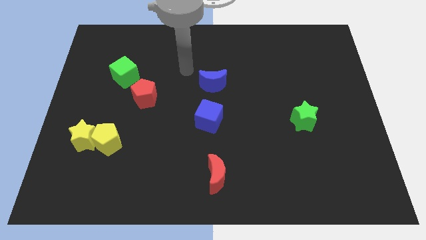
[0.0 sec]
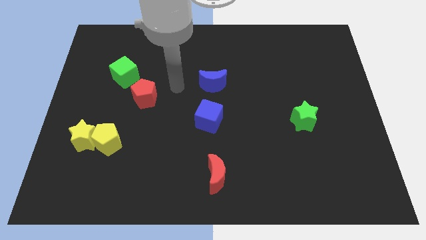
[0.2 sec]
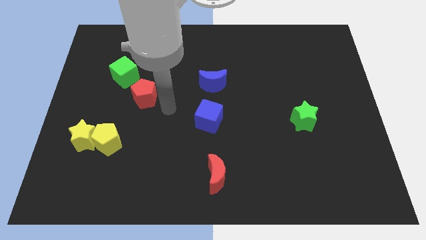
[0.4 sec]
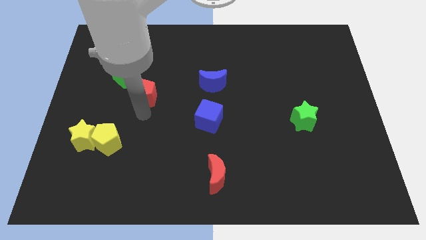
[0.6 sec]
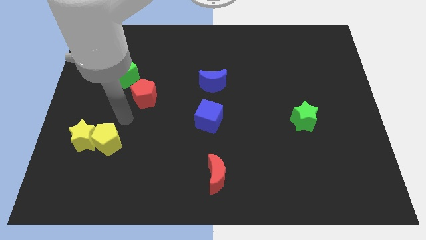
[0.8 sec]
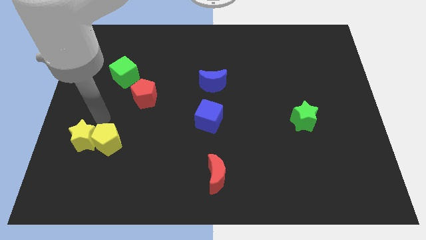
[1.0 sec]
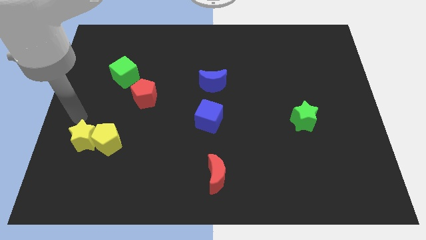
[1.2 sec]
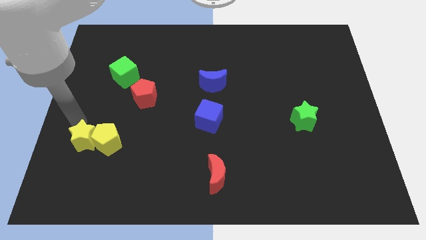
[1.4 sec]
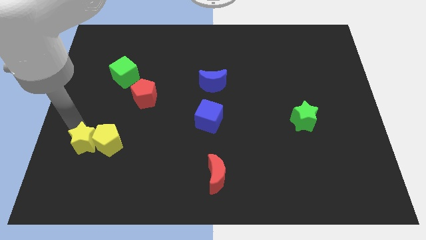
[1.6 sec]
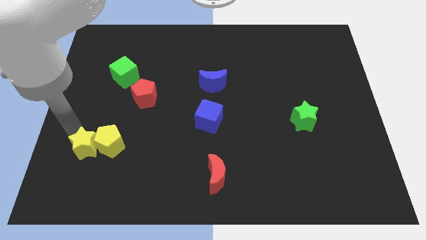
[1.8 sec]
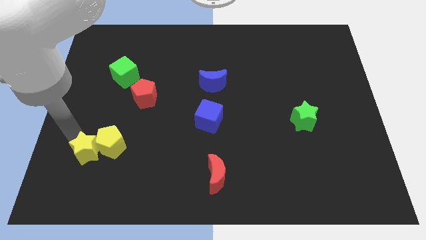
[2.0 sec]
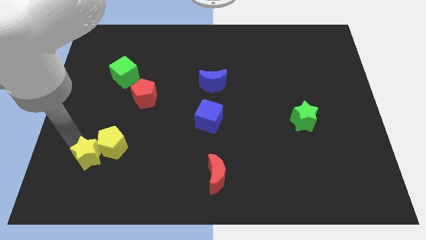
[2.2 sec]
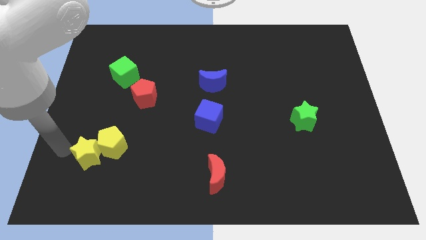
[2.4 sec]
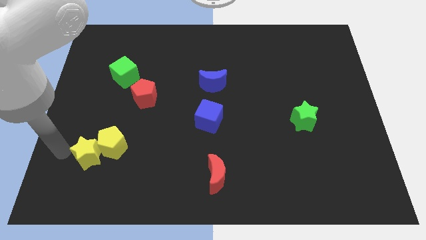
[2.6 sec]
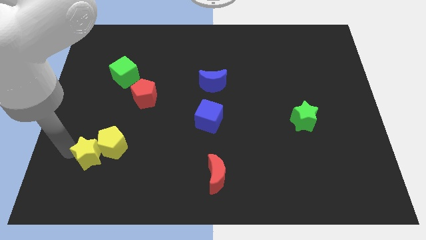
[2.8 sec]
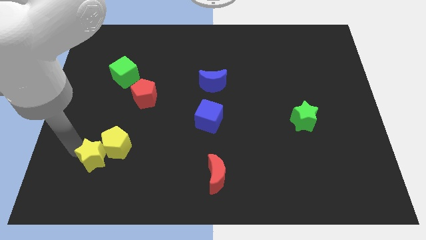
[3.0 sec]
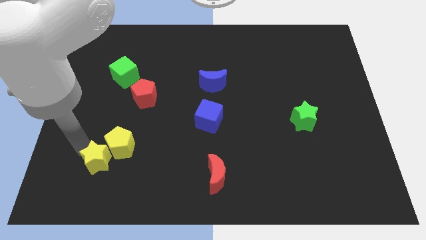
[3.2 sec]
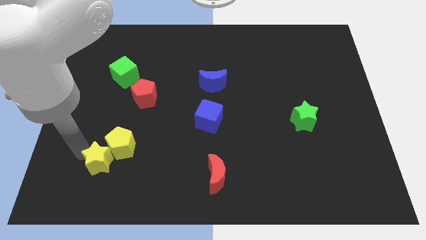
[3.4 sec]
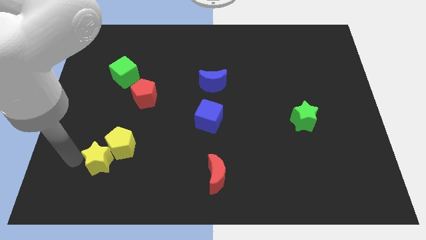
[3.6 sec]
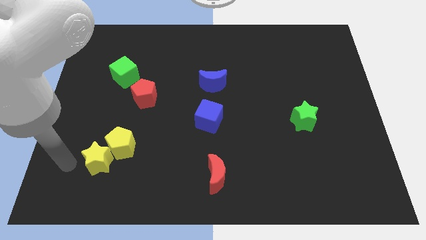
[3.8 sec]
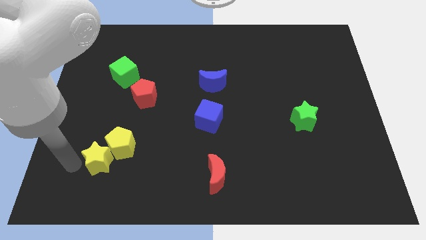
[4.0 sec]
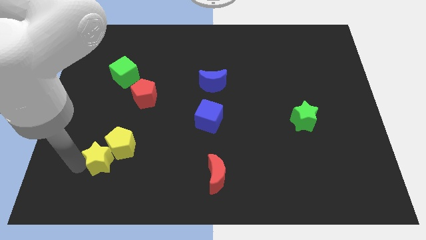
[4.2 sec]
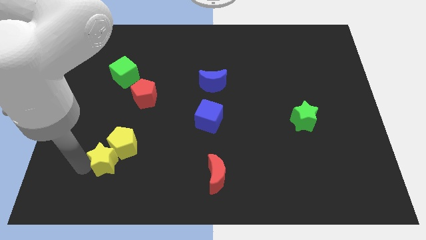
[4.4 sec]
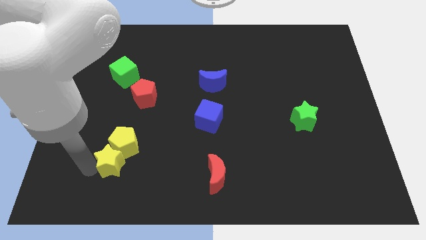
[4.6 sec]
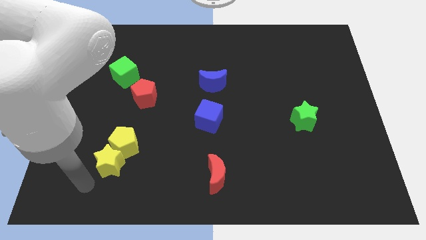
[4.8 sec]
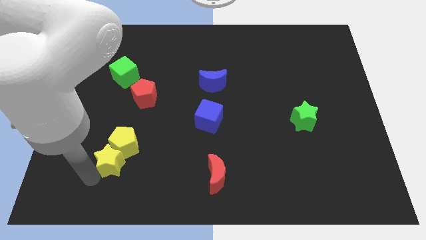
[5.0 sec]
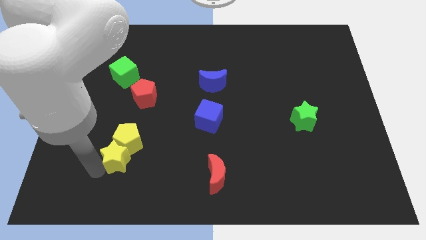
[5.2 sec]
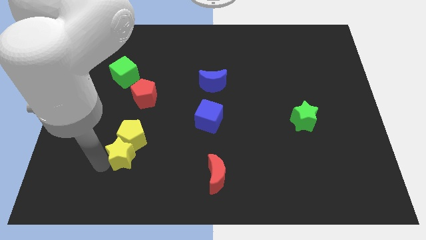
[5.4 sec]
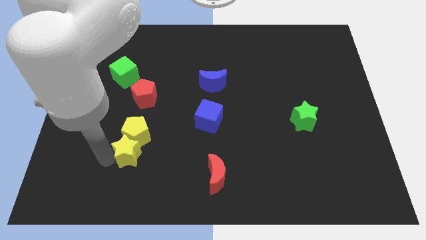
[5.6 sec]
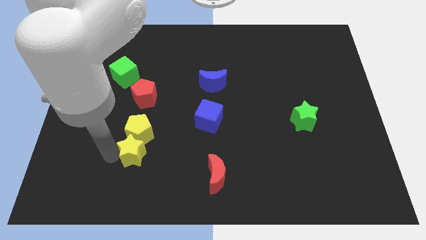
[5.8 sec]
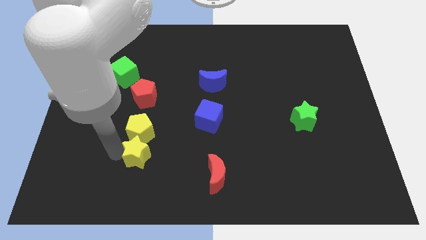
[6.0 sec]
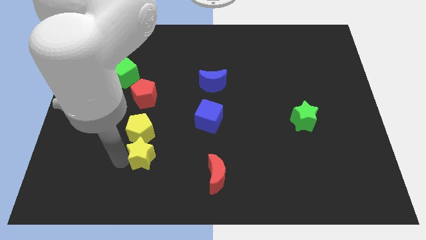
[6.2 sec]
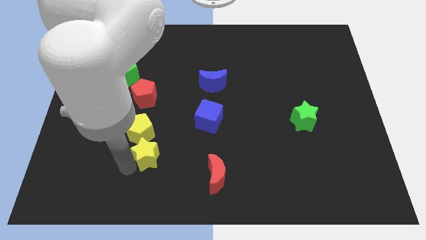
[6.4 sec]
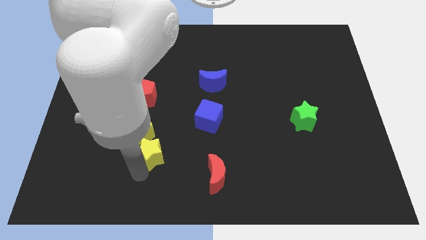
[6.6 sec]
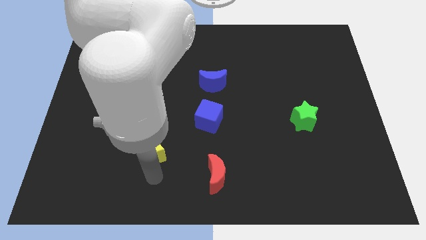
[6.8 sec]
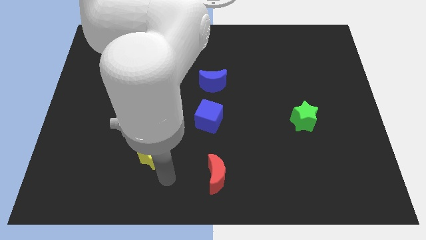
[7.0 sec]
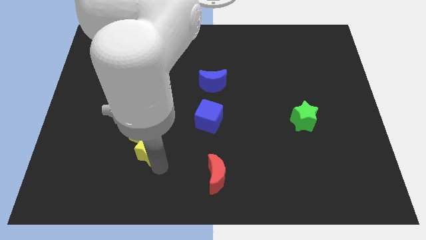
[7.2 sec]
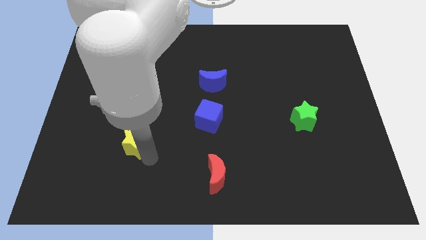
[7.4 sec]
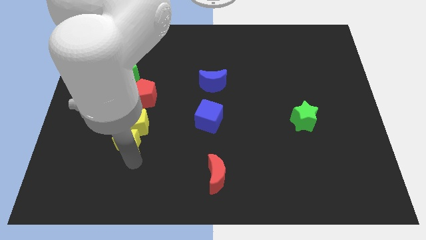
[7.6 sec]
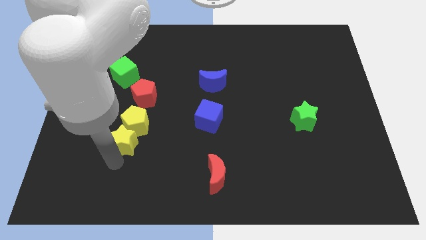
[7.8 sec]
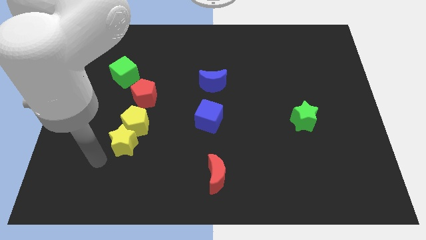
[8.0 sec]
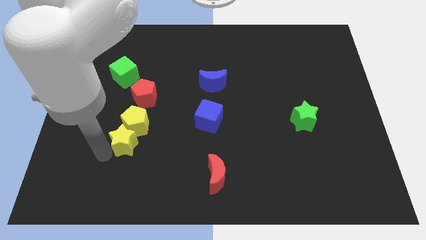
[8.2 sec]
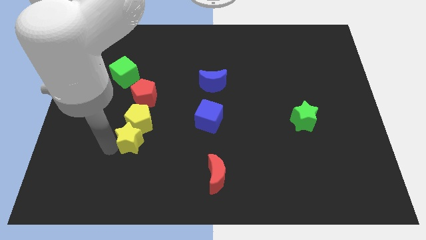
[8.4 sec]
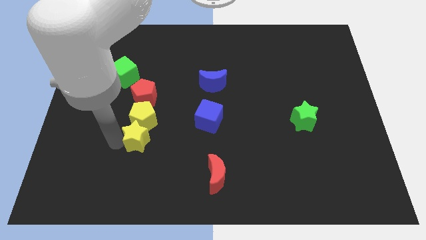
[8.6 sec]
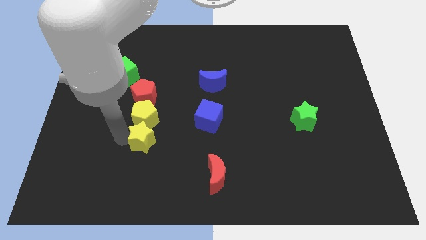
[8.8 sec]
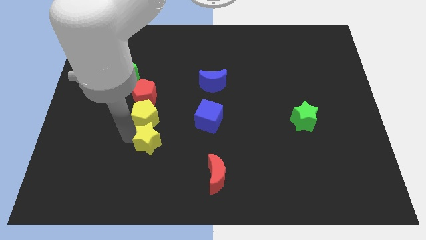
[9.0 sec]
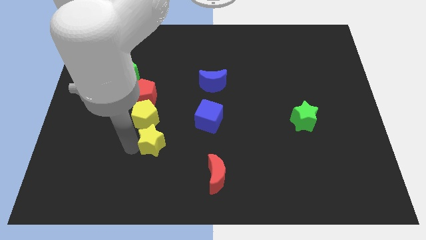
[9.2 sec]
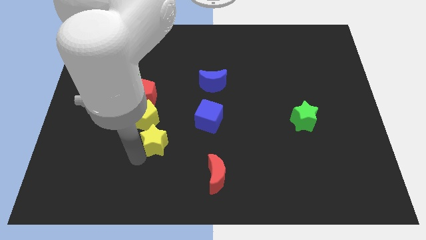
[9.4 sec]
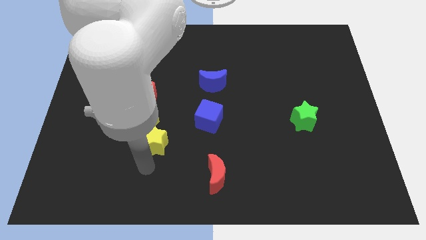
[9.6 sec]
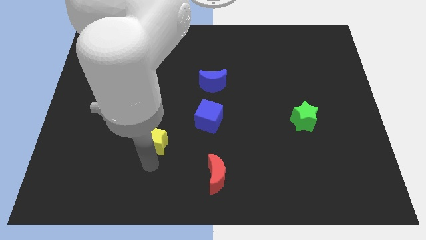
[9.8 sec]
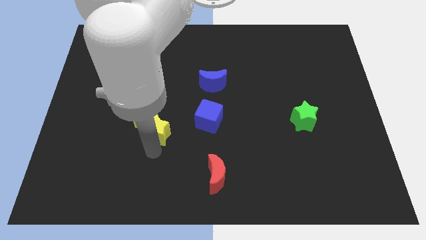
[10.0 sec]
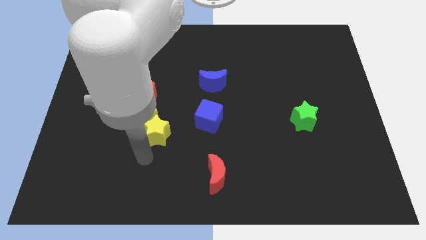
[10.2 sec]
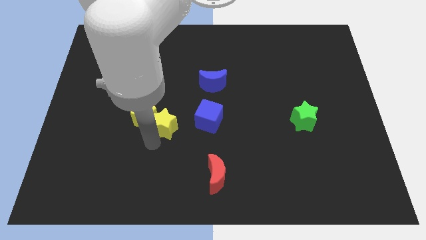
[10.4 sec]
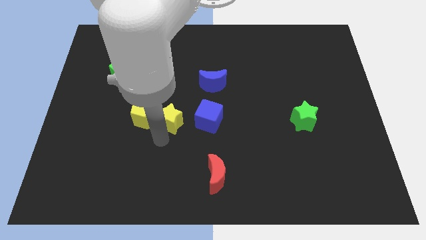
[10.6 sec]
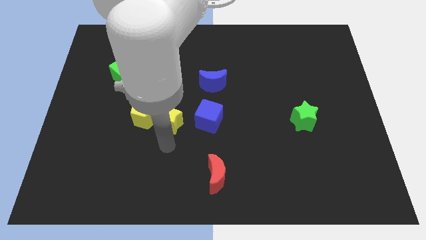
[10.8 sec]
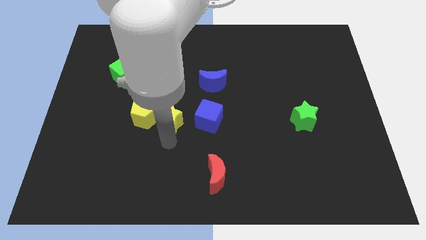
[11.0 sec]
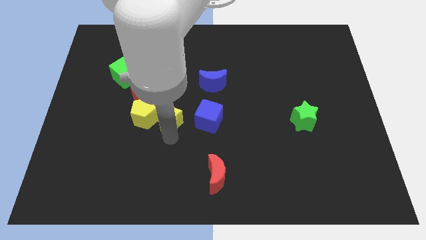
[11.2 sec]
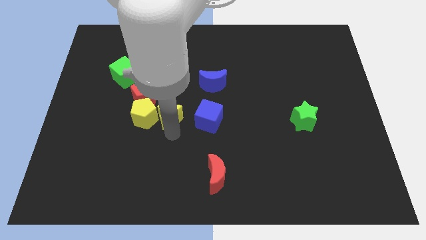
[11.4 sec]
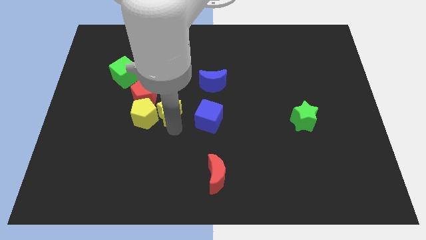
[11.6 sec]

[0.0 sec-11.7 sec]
push the yellow star right of the red pentagon

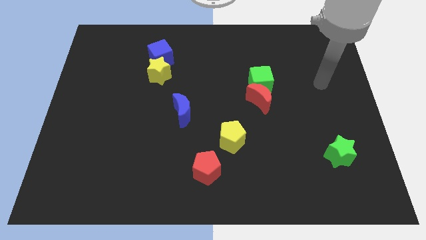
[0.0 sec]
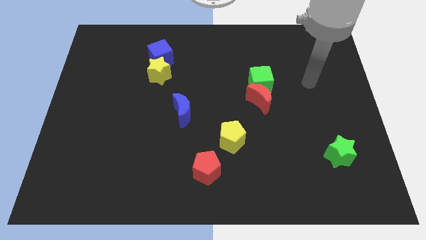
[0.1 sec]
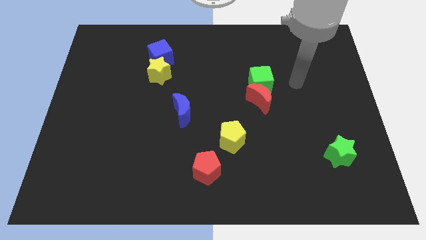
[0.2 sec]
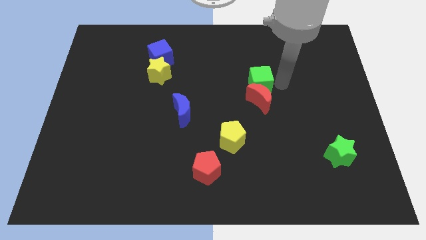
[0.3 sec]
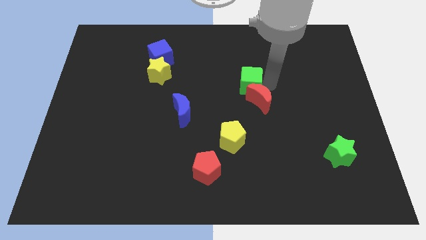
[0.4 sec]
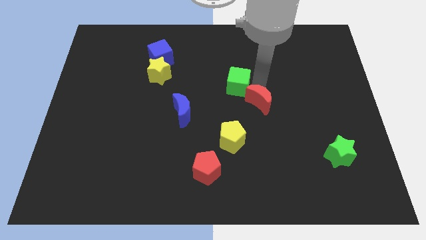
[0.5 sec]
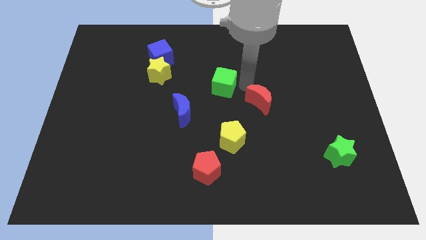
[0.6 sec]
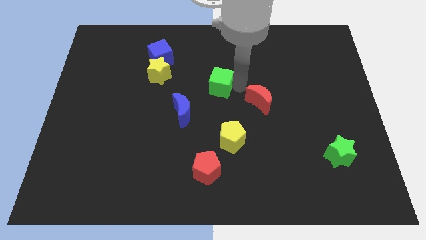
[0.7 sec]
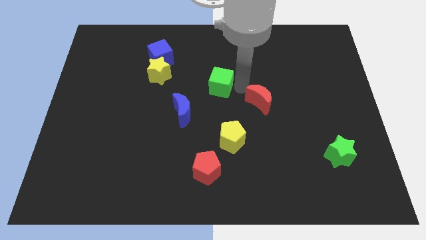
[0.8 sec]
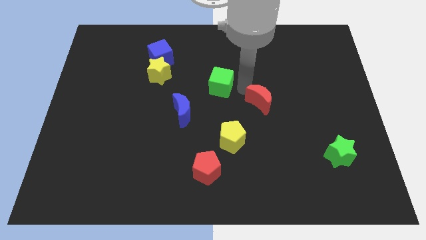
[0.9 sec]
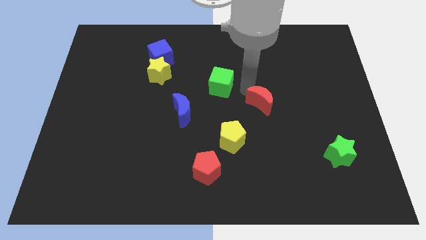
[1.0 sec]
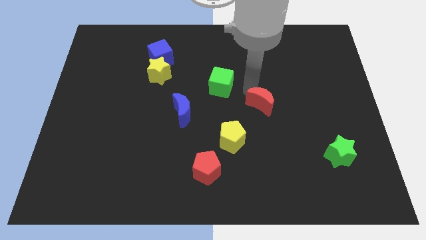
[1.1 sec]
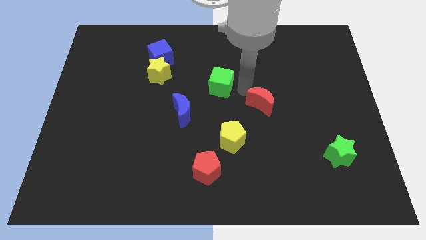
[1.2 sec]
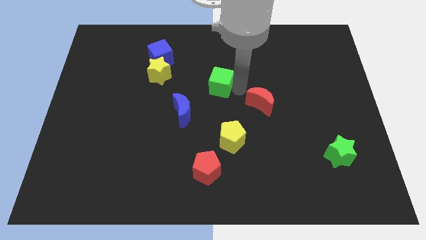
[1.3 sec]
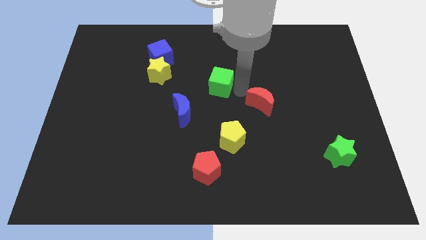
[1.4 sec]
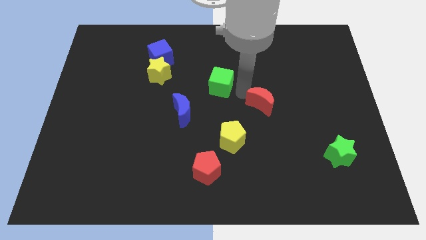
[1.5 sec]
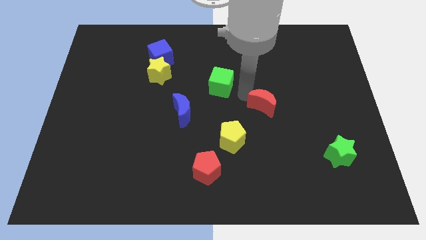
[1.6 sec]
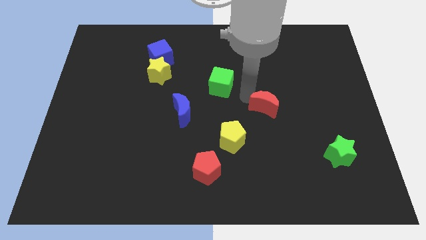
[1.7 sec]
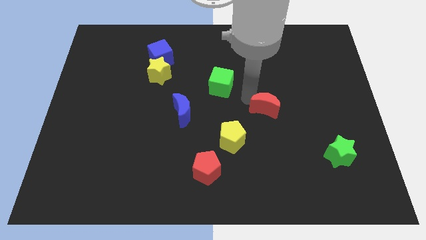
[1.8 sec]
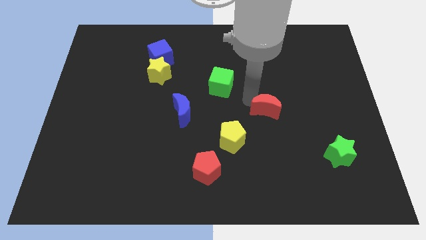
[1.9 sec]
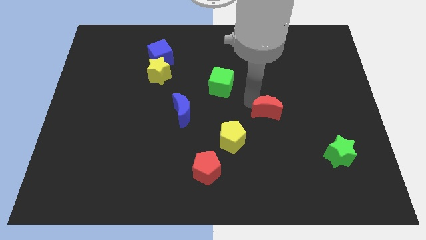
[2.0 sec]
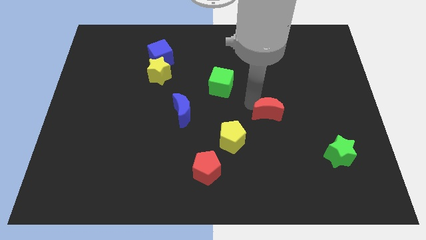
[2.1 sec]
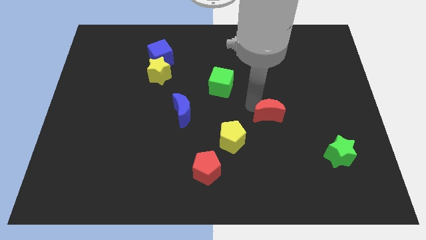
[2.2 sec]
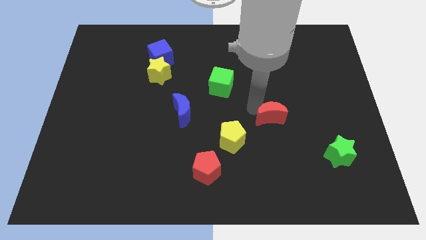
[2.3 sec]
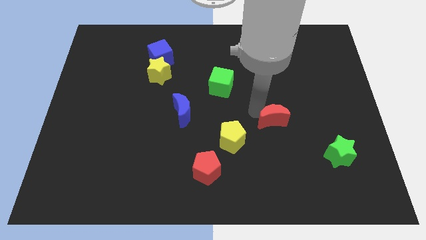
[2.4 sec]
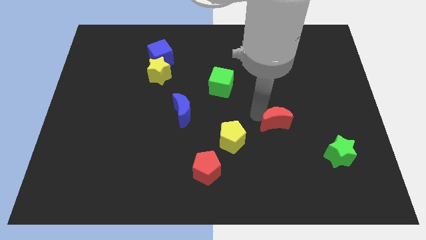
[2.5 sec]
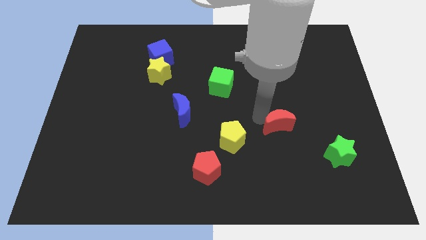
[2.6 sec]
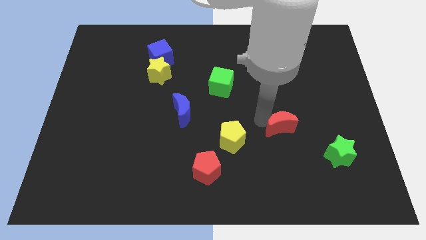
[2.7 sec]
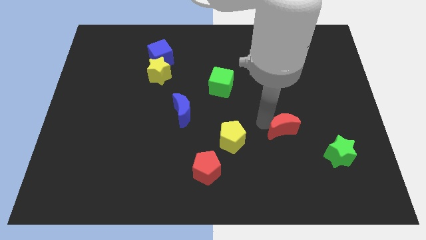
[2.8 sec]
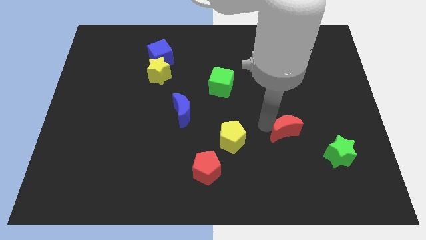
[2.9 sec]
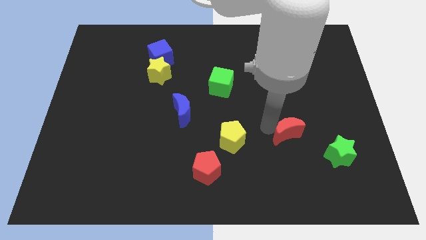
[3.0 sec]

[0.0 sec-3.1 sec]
push the red moon diagonally up and to the left of the green star
